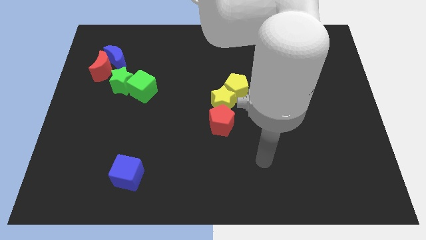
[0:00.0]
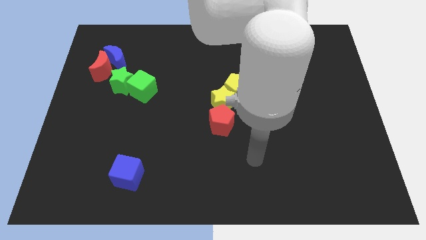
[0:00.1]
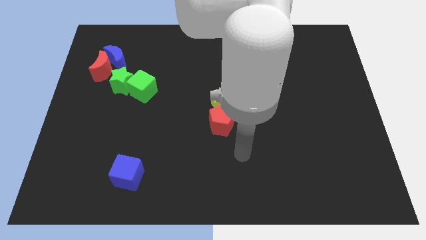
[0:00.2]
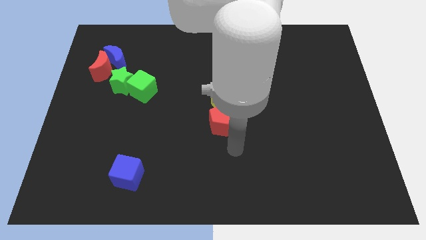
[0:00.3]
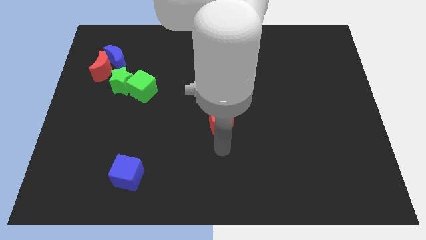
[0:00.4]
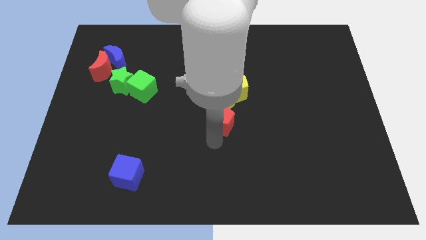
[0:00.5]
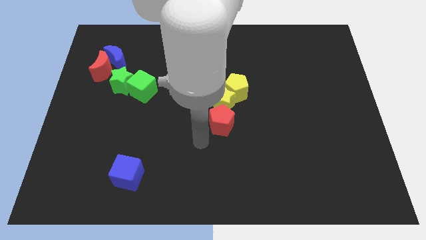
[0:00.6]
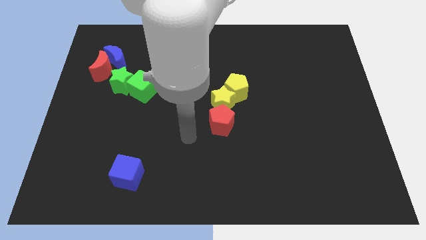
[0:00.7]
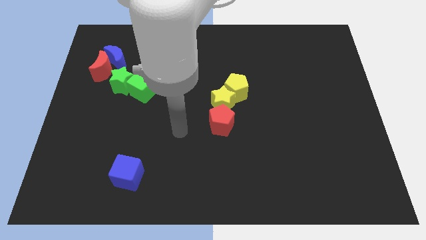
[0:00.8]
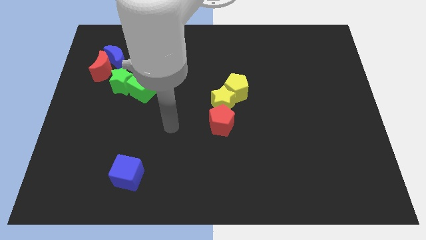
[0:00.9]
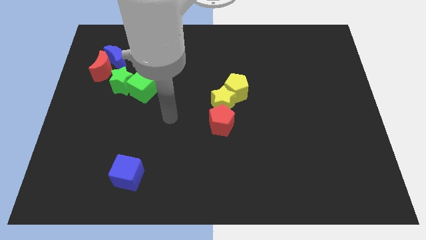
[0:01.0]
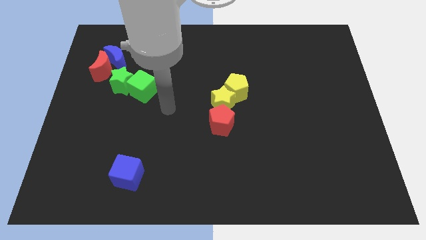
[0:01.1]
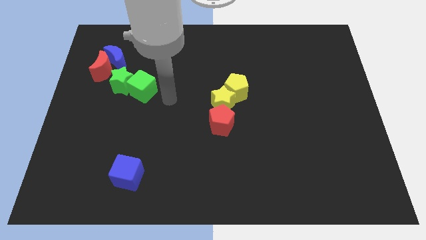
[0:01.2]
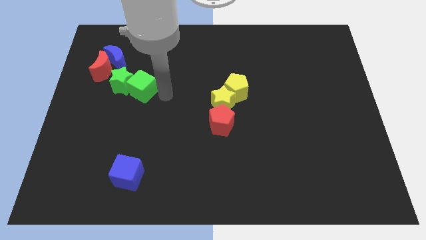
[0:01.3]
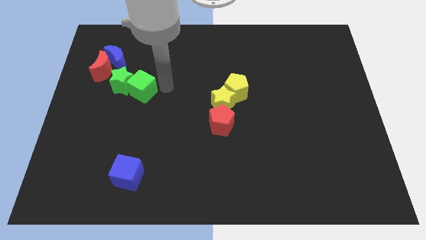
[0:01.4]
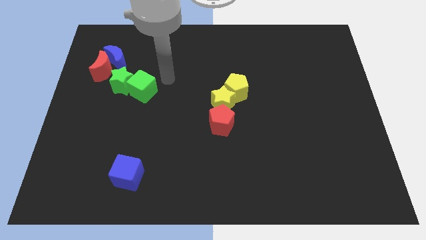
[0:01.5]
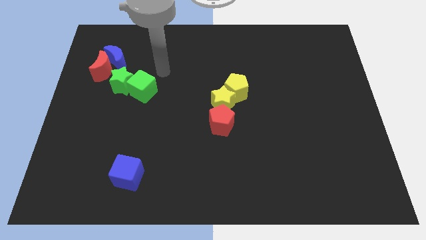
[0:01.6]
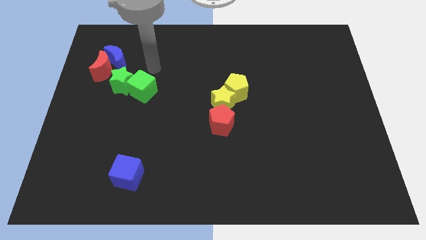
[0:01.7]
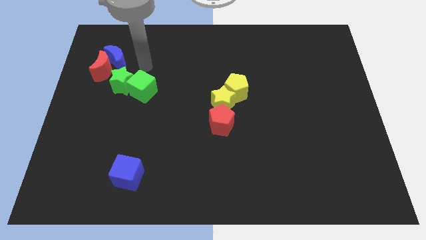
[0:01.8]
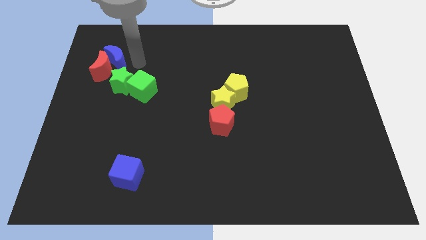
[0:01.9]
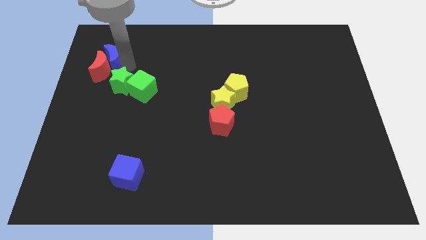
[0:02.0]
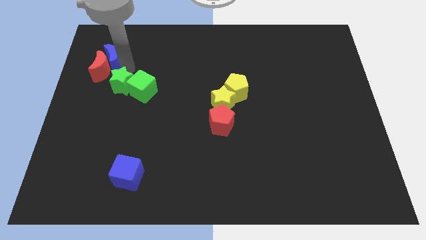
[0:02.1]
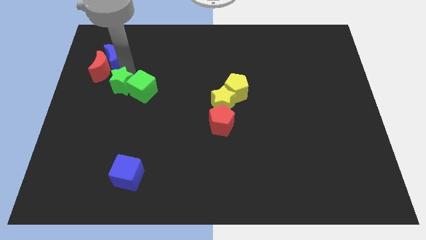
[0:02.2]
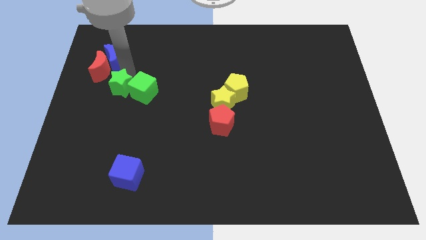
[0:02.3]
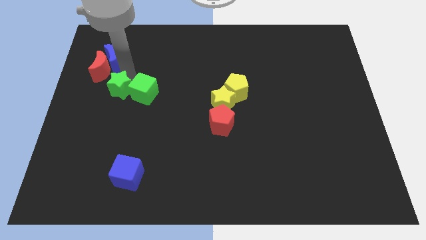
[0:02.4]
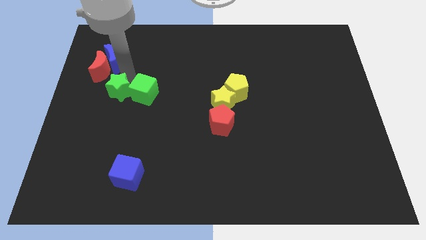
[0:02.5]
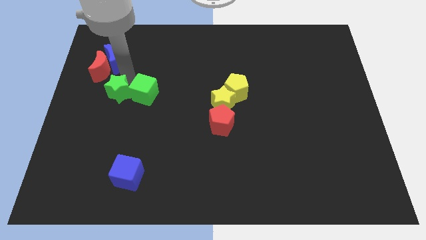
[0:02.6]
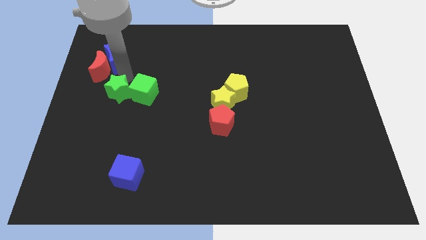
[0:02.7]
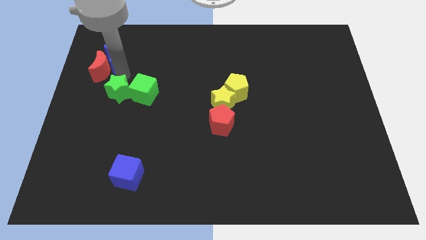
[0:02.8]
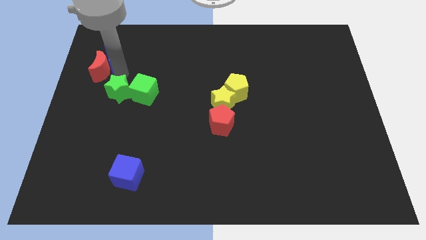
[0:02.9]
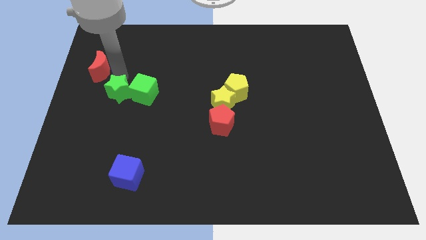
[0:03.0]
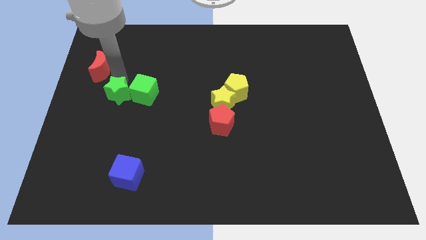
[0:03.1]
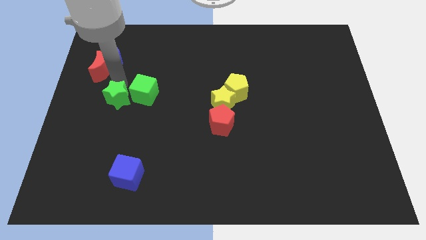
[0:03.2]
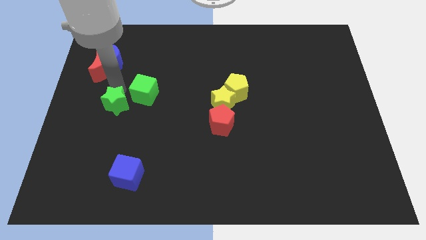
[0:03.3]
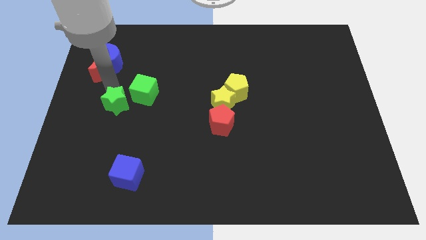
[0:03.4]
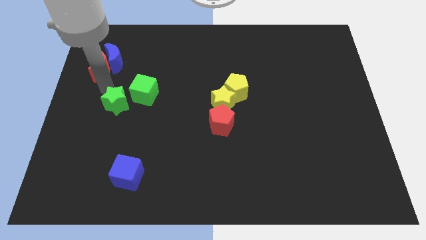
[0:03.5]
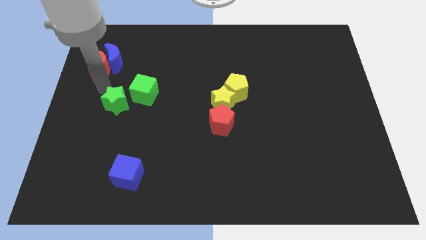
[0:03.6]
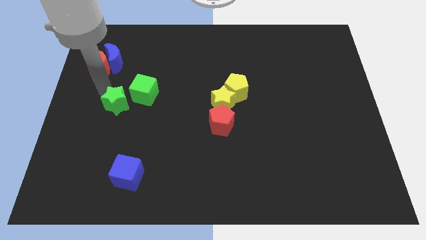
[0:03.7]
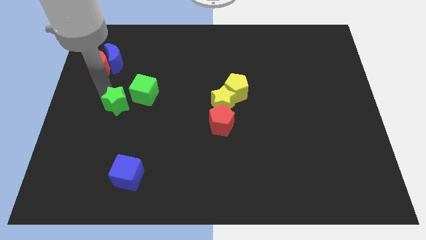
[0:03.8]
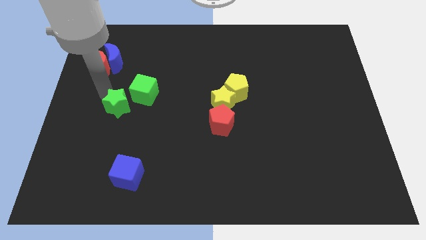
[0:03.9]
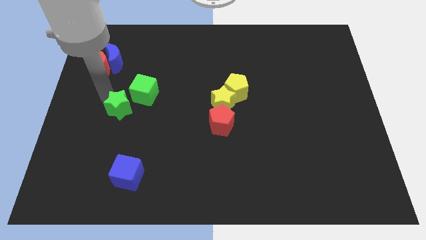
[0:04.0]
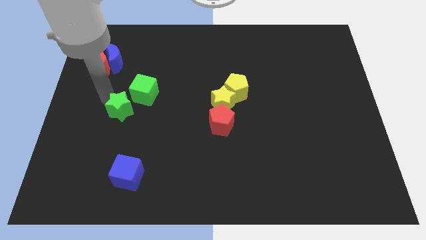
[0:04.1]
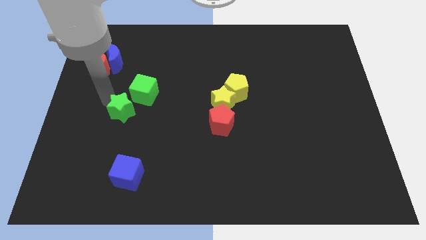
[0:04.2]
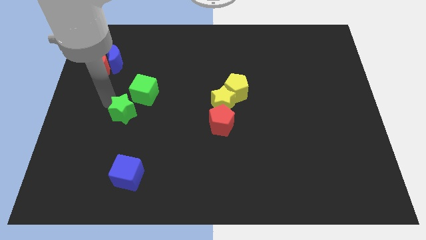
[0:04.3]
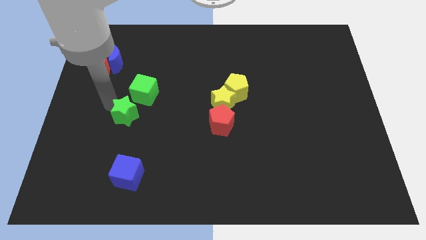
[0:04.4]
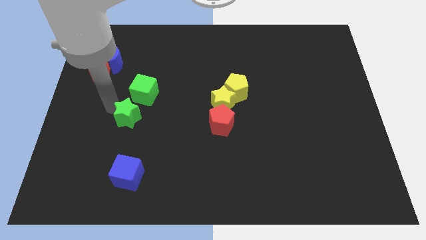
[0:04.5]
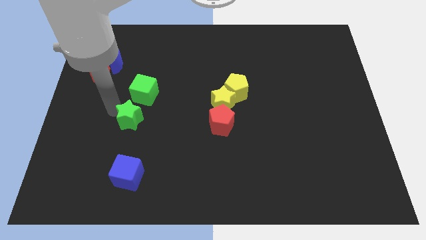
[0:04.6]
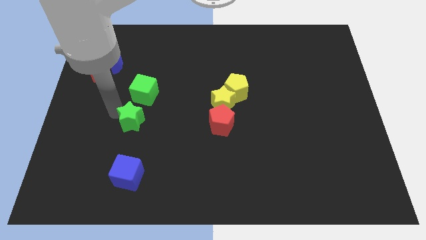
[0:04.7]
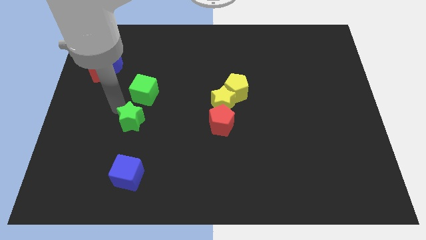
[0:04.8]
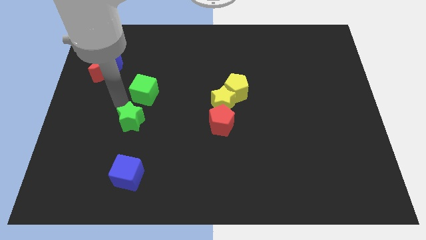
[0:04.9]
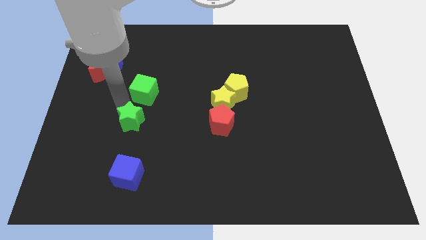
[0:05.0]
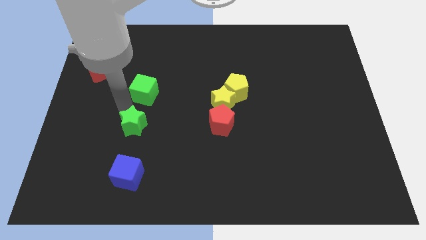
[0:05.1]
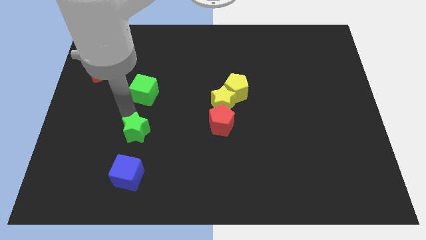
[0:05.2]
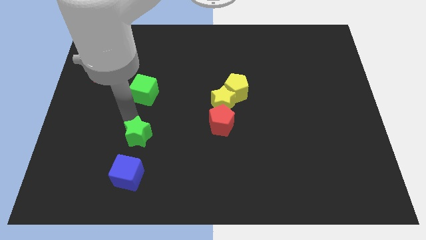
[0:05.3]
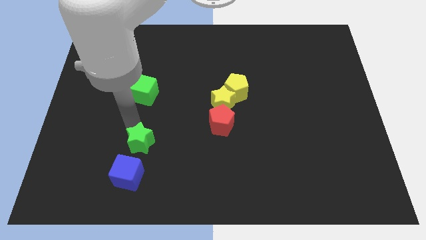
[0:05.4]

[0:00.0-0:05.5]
move the green star diagonally up and to the right of the blue cube

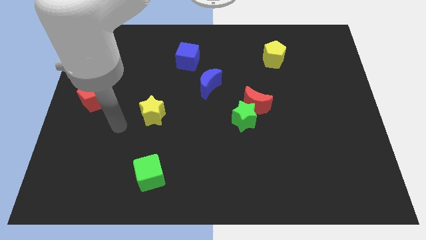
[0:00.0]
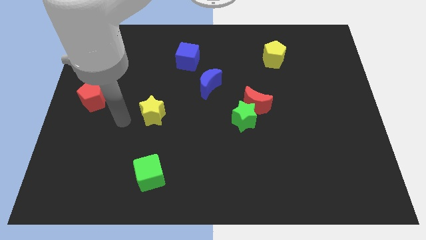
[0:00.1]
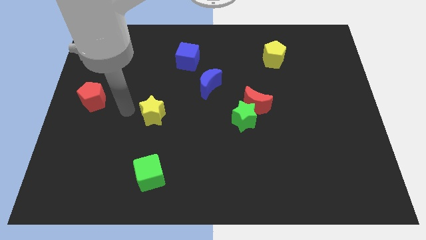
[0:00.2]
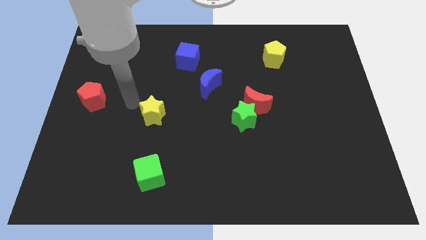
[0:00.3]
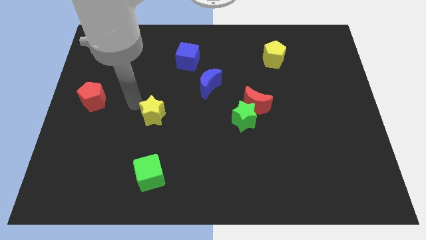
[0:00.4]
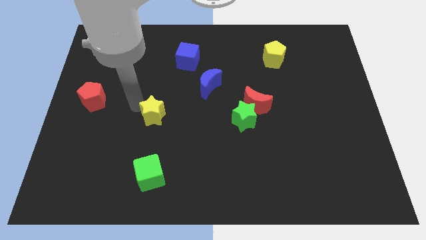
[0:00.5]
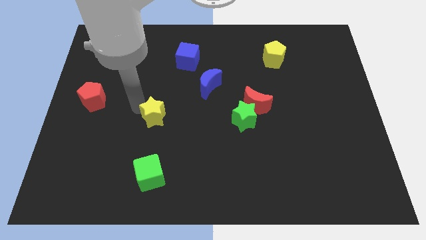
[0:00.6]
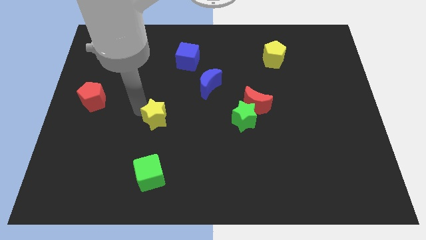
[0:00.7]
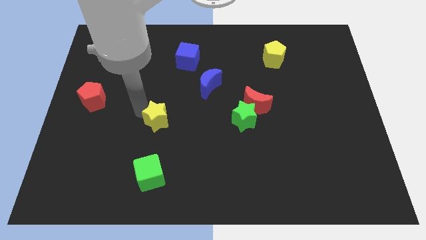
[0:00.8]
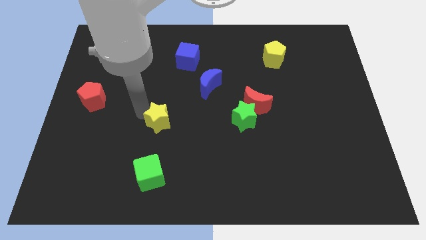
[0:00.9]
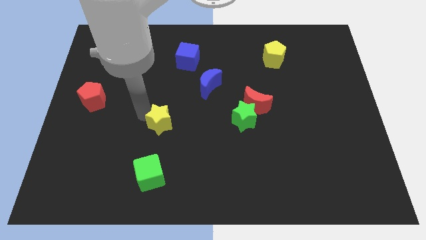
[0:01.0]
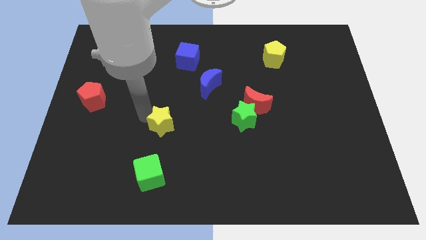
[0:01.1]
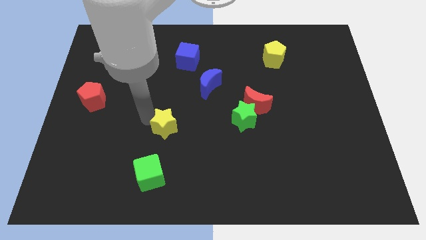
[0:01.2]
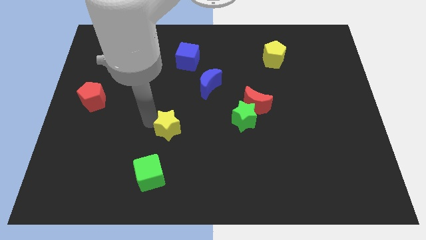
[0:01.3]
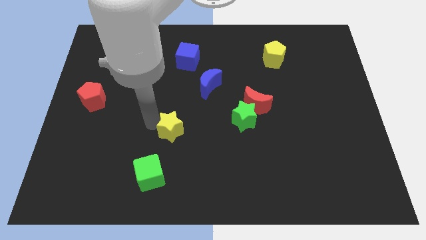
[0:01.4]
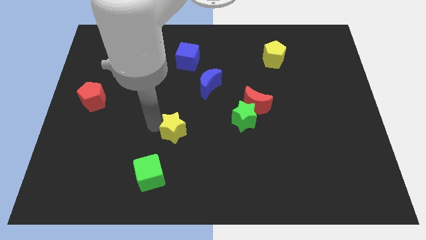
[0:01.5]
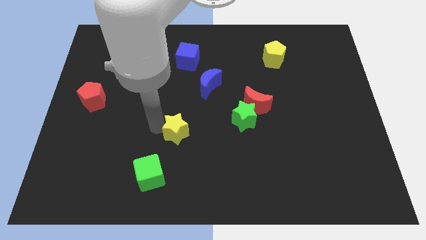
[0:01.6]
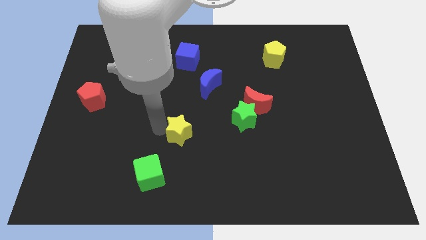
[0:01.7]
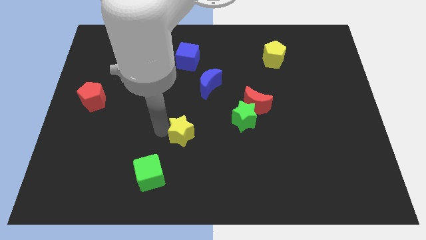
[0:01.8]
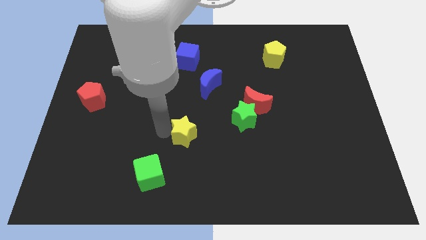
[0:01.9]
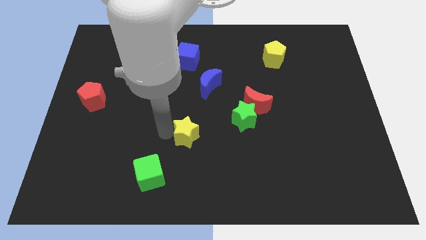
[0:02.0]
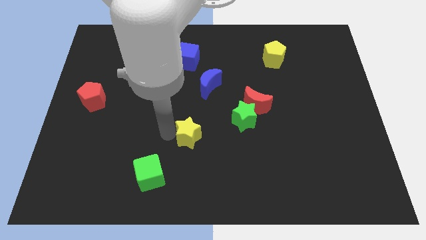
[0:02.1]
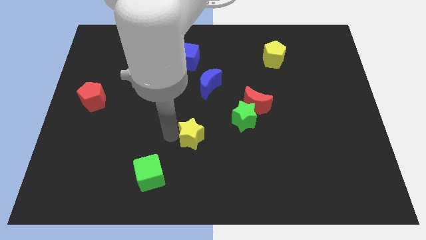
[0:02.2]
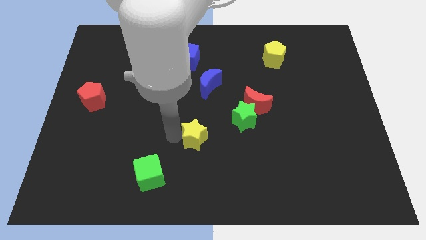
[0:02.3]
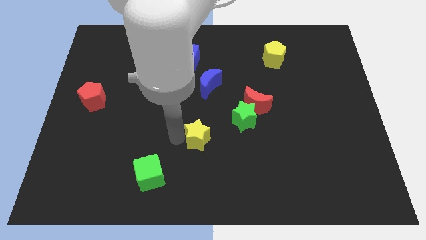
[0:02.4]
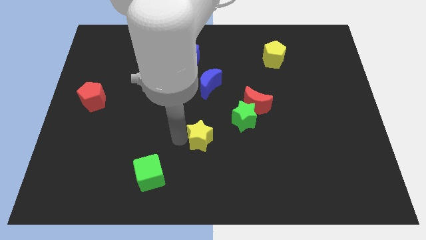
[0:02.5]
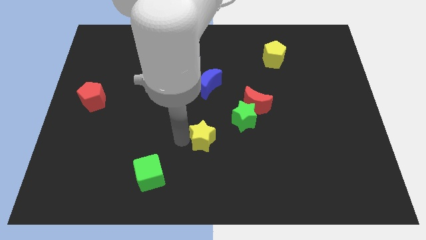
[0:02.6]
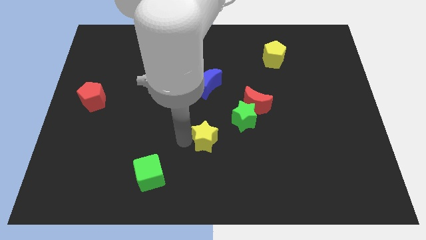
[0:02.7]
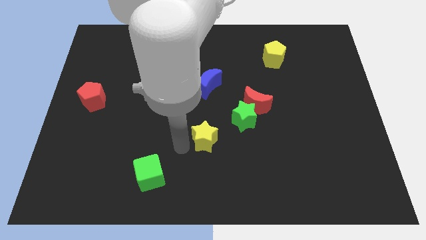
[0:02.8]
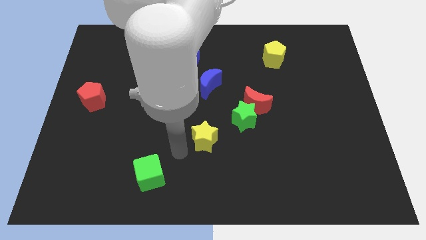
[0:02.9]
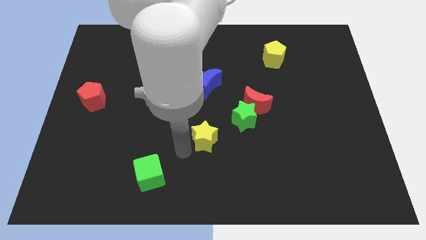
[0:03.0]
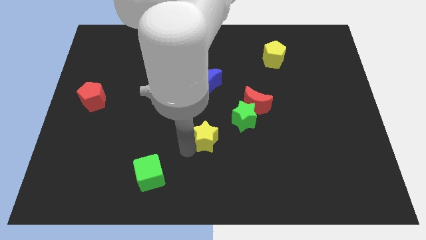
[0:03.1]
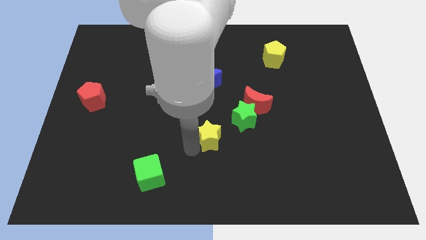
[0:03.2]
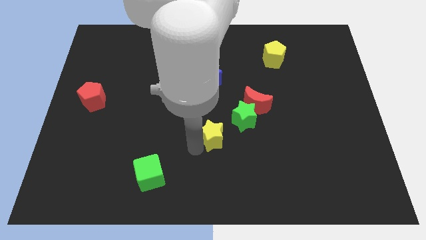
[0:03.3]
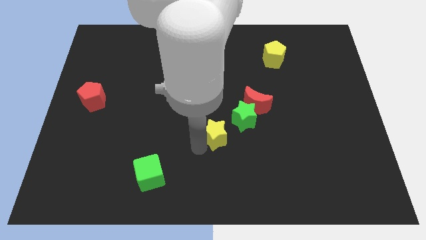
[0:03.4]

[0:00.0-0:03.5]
slide the yellow star to the bottom left side of the red moon
